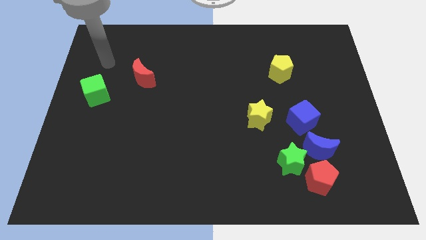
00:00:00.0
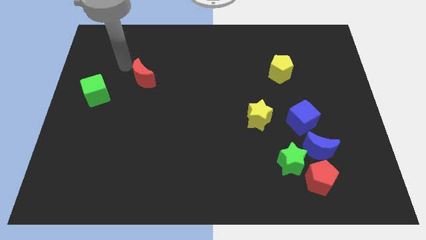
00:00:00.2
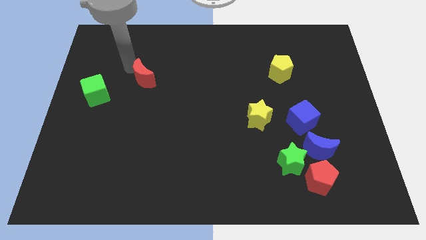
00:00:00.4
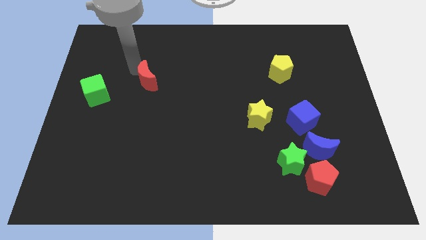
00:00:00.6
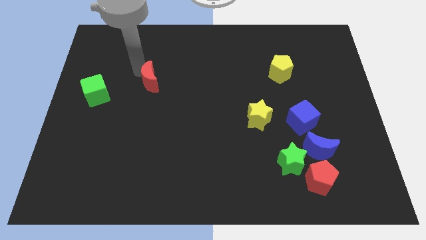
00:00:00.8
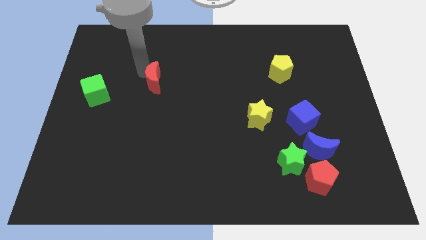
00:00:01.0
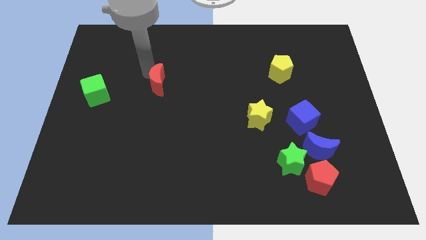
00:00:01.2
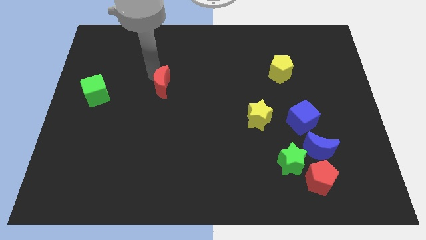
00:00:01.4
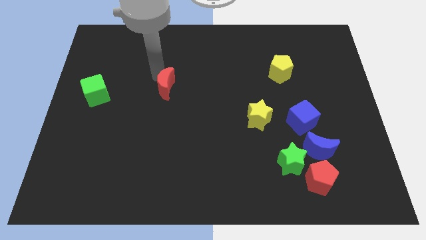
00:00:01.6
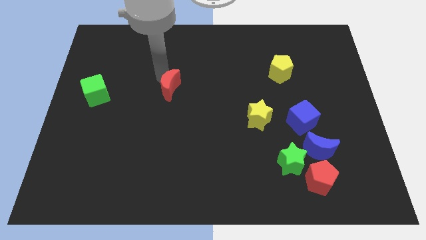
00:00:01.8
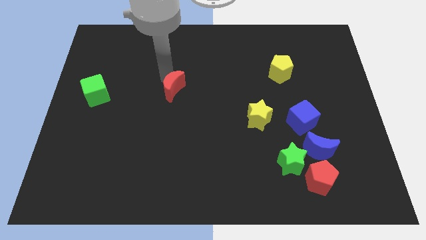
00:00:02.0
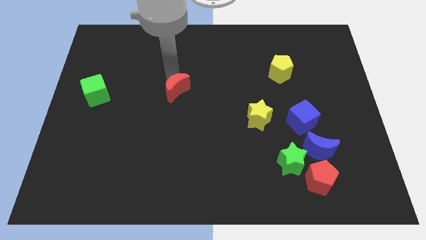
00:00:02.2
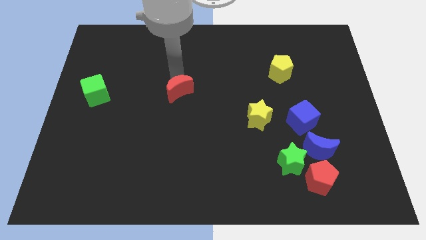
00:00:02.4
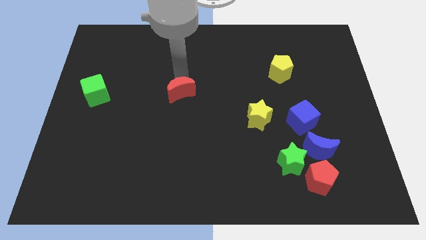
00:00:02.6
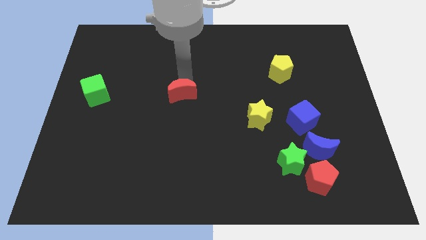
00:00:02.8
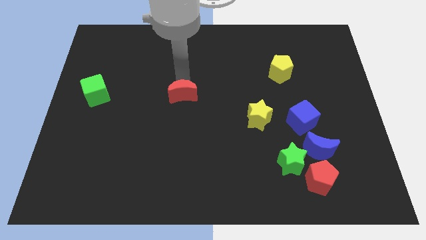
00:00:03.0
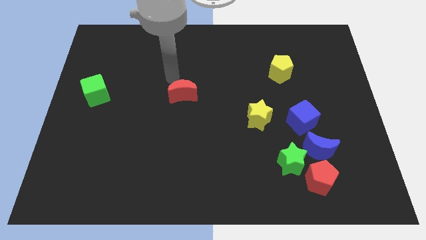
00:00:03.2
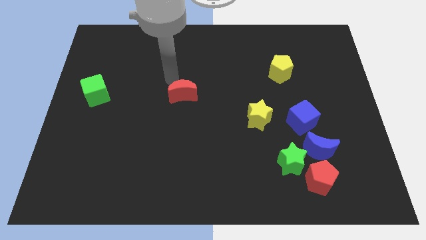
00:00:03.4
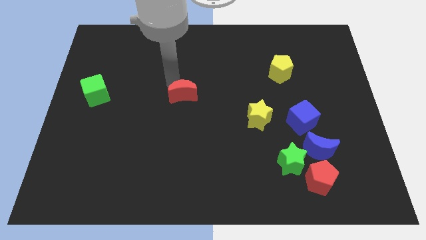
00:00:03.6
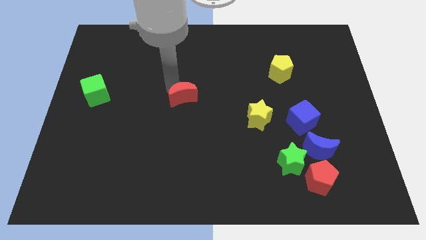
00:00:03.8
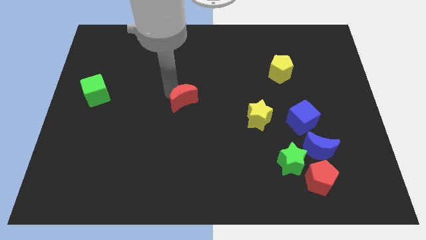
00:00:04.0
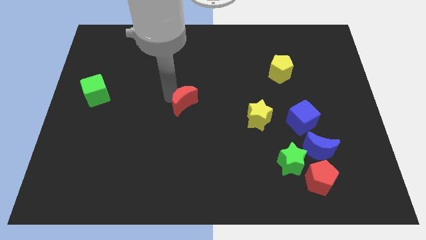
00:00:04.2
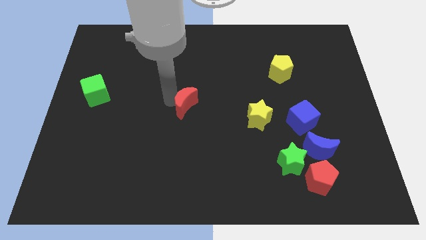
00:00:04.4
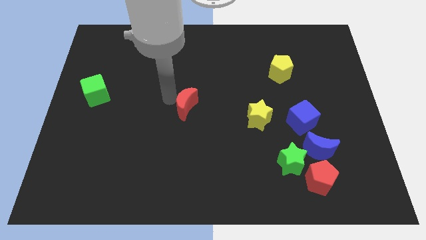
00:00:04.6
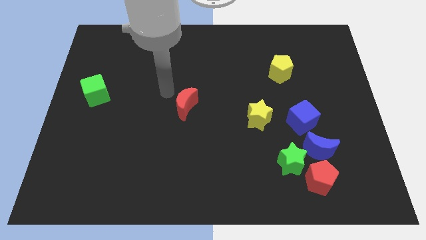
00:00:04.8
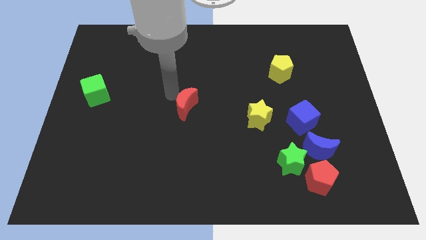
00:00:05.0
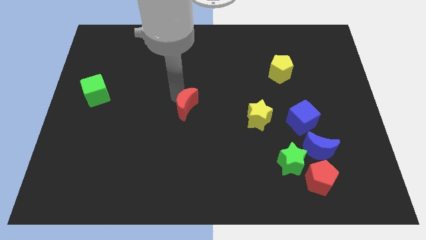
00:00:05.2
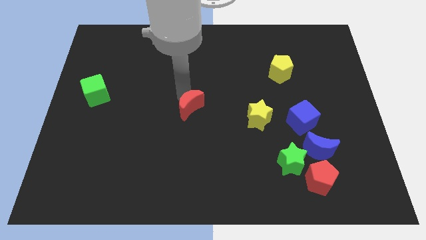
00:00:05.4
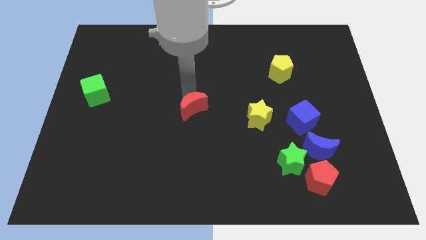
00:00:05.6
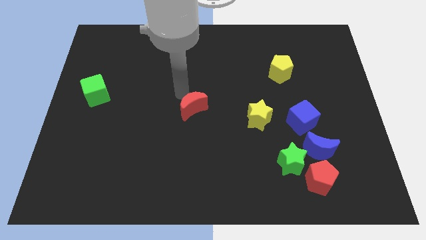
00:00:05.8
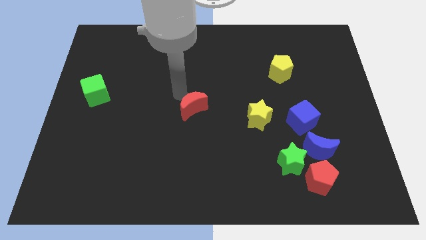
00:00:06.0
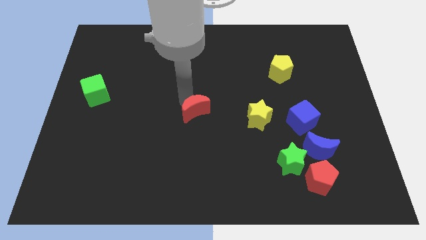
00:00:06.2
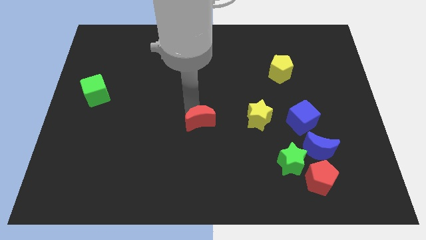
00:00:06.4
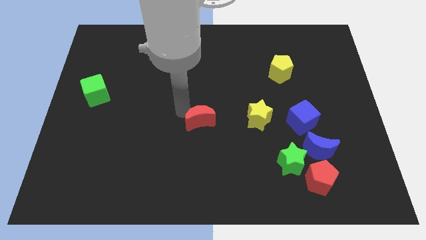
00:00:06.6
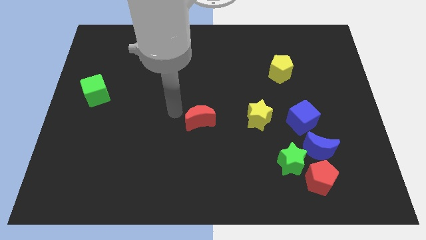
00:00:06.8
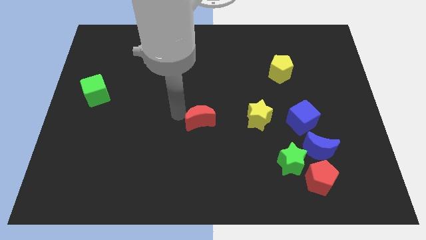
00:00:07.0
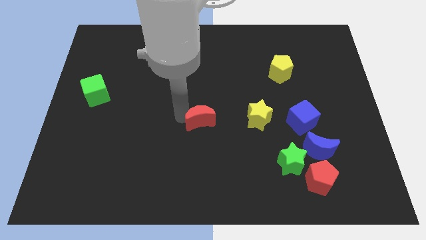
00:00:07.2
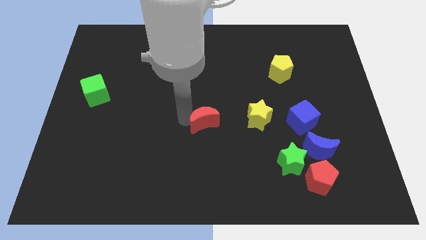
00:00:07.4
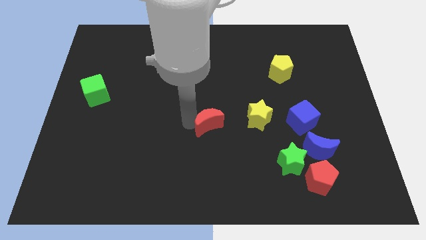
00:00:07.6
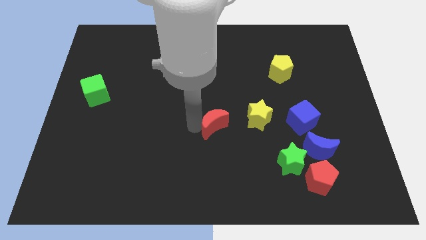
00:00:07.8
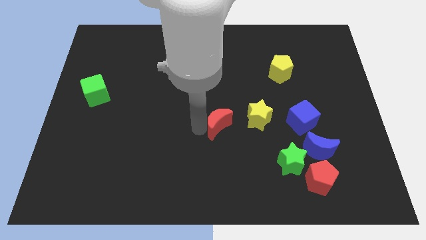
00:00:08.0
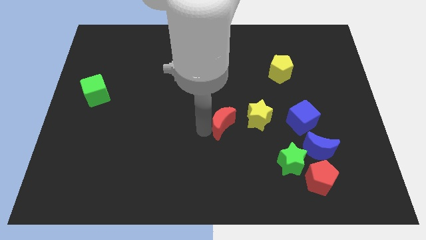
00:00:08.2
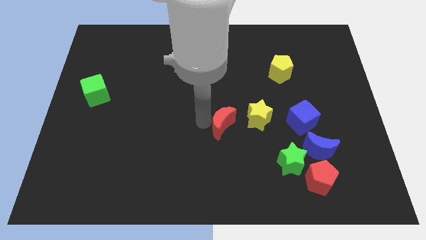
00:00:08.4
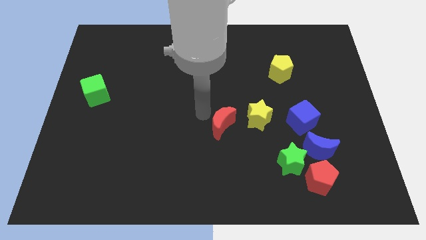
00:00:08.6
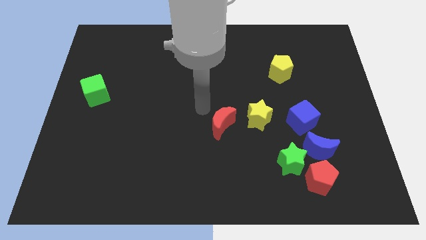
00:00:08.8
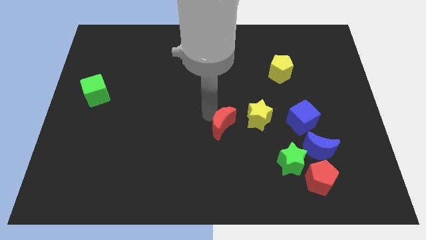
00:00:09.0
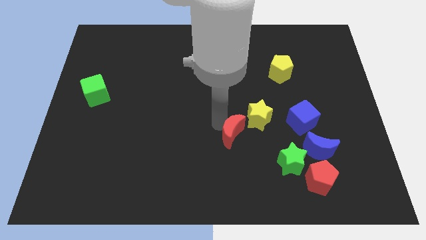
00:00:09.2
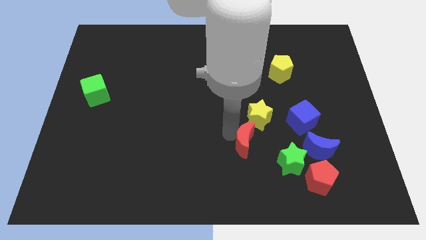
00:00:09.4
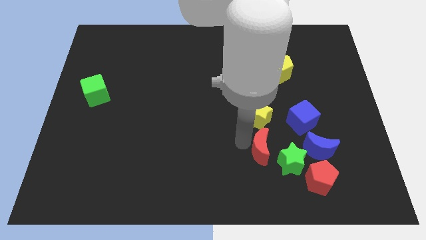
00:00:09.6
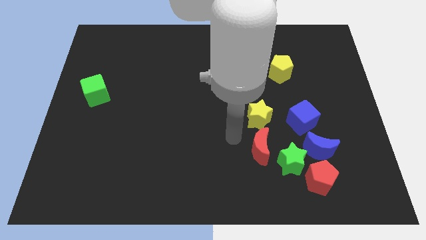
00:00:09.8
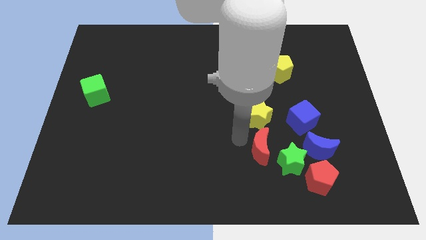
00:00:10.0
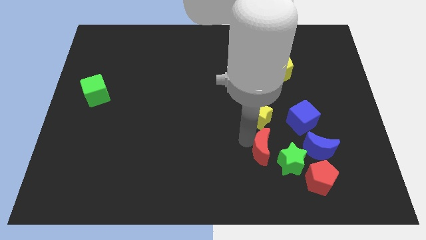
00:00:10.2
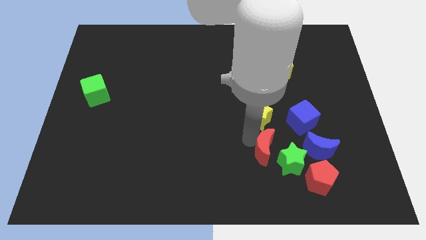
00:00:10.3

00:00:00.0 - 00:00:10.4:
put the red moon to the green star

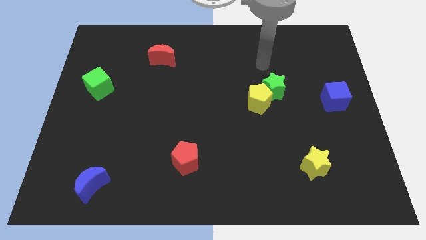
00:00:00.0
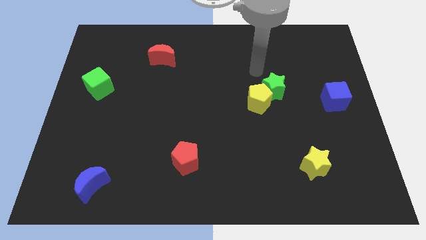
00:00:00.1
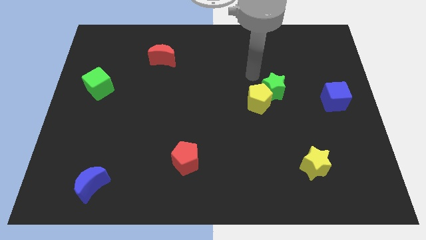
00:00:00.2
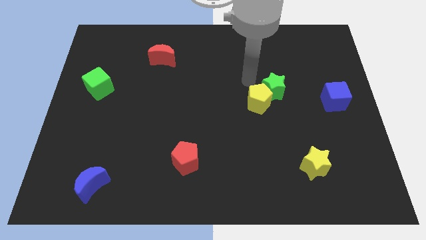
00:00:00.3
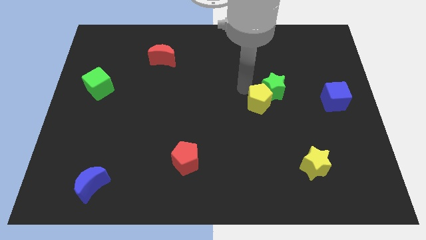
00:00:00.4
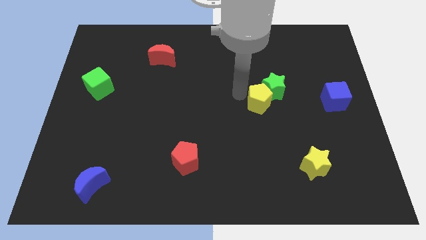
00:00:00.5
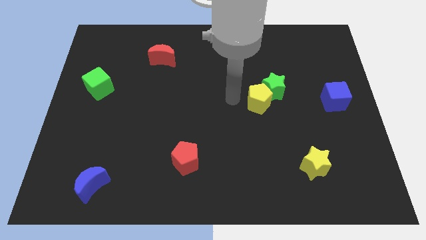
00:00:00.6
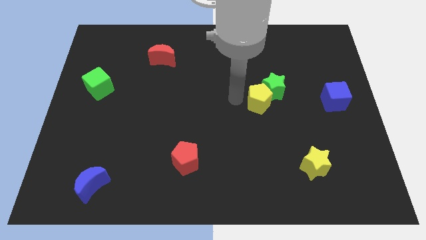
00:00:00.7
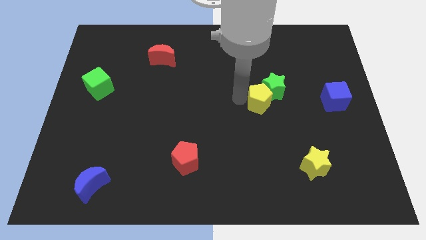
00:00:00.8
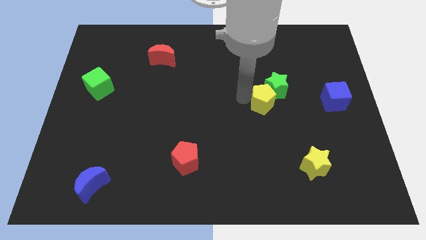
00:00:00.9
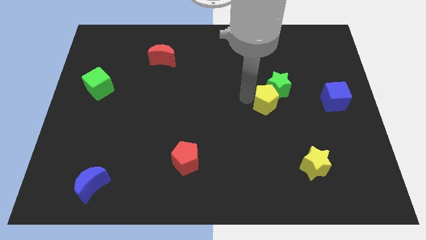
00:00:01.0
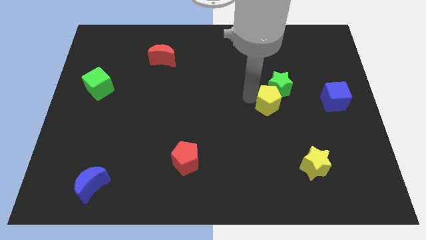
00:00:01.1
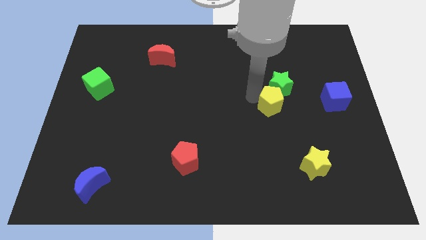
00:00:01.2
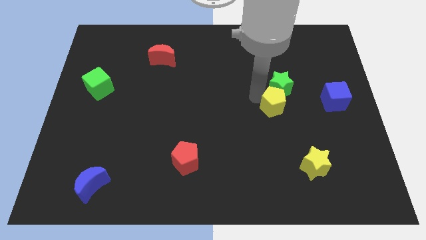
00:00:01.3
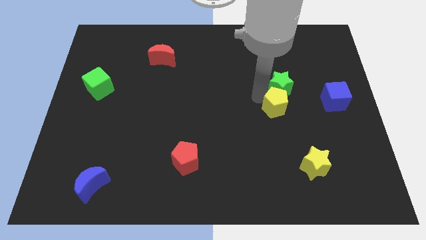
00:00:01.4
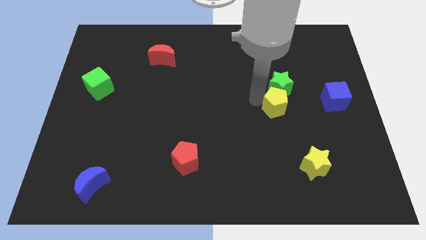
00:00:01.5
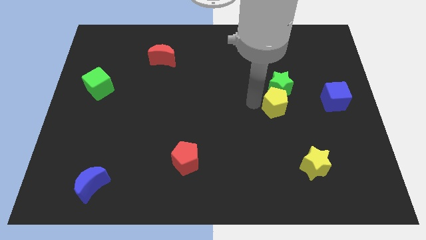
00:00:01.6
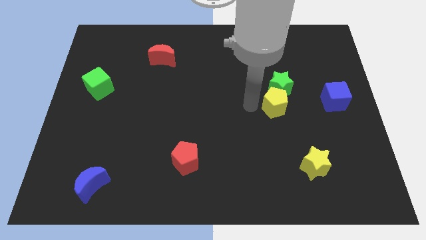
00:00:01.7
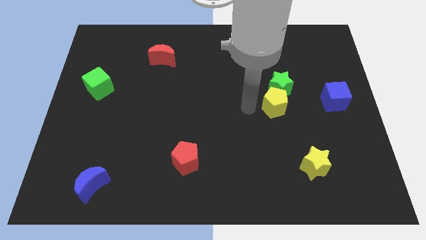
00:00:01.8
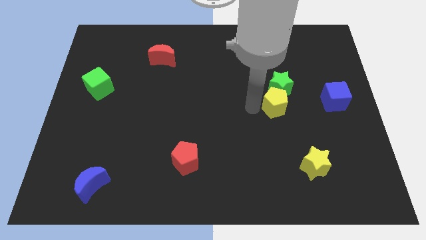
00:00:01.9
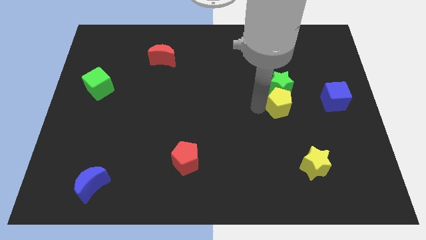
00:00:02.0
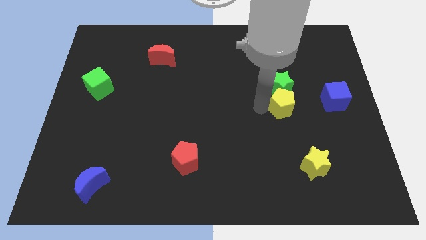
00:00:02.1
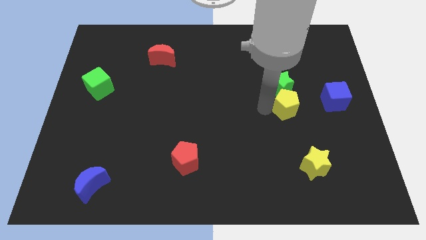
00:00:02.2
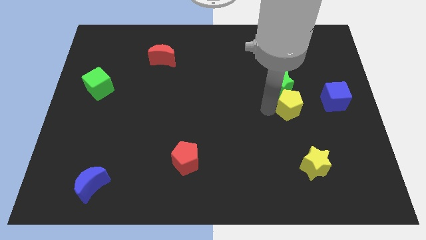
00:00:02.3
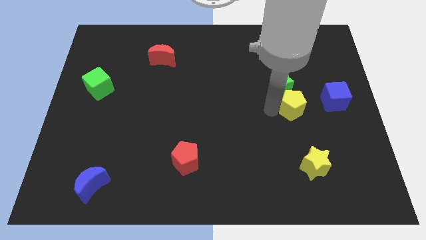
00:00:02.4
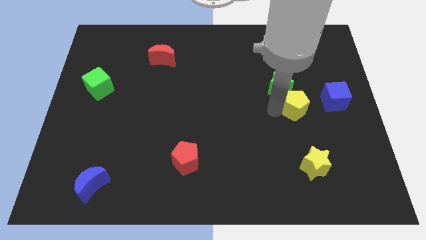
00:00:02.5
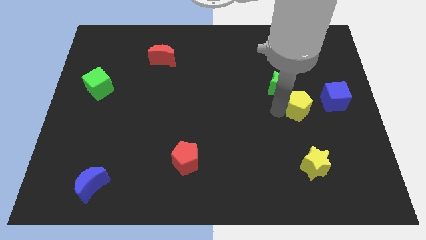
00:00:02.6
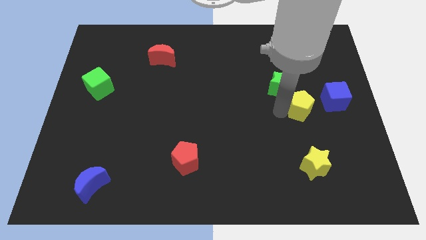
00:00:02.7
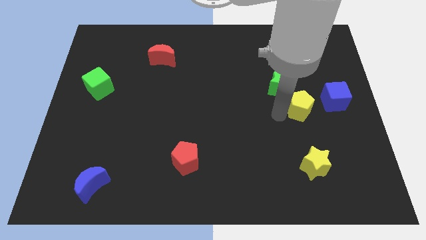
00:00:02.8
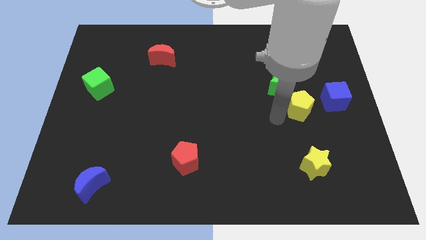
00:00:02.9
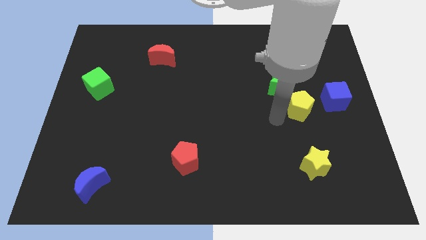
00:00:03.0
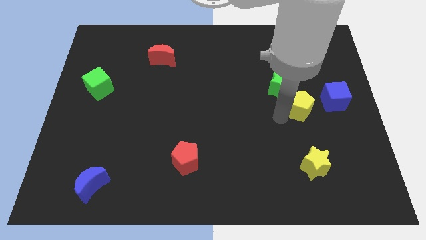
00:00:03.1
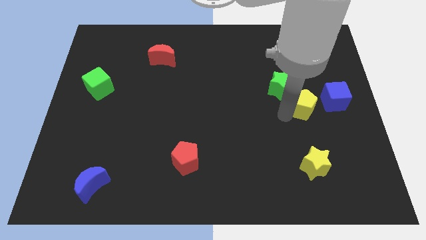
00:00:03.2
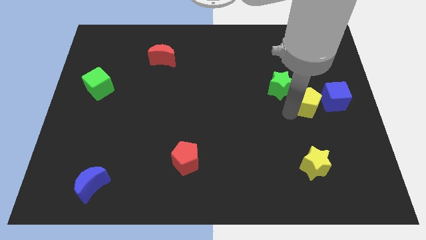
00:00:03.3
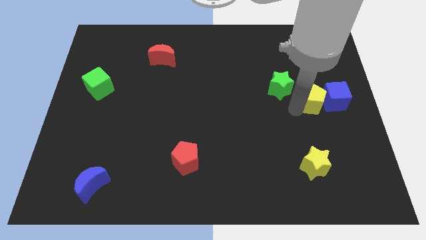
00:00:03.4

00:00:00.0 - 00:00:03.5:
push the yellow pentagon to the blue cube
